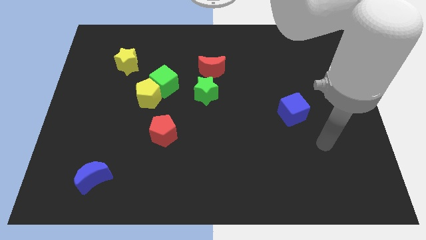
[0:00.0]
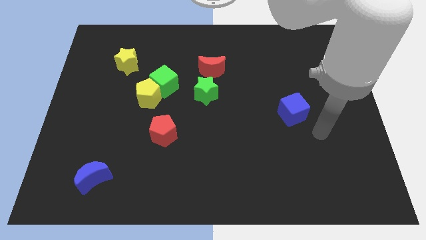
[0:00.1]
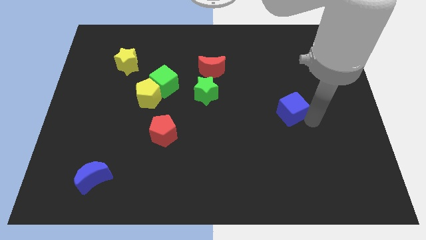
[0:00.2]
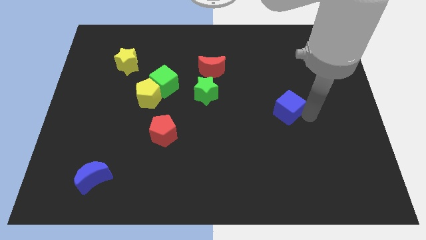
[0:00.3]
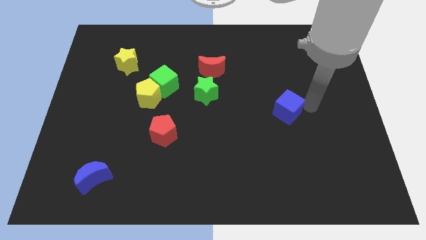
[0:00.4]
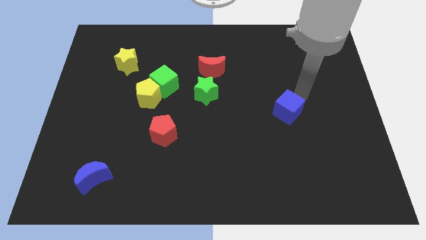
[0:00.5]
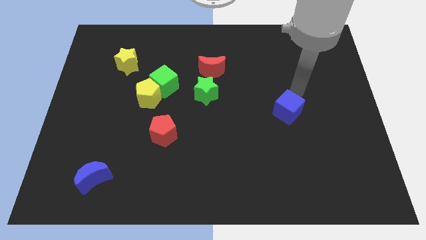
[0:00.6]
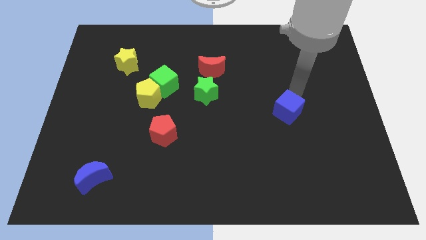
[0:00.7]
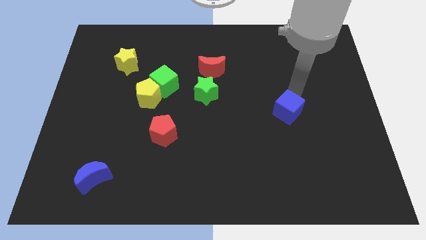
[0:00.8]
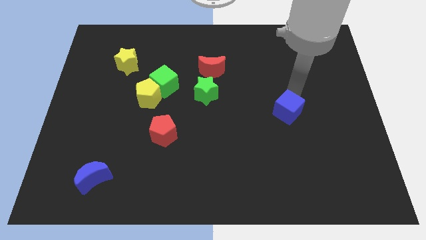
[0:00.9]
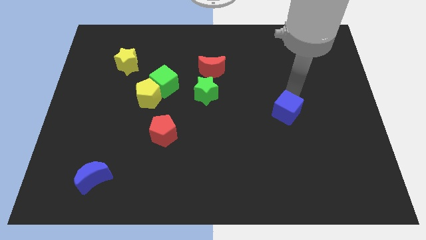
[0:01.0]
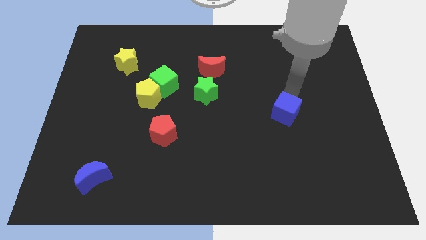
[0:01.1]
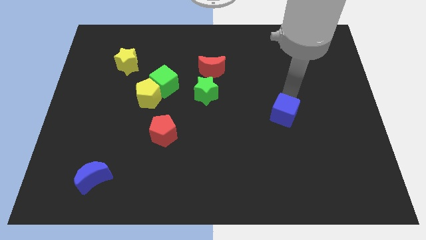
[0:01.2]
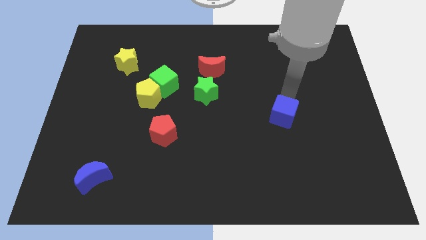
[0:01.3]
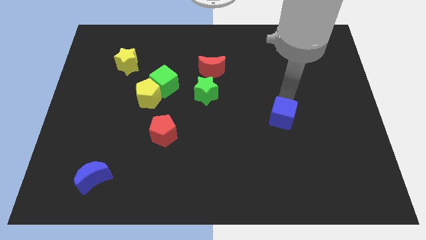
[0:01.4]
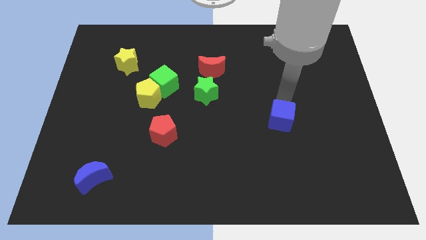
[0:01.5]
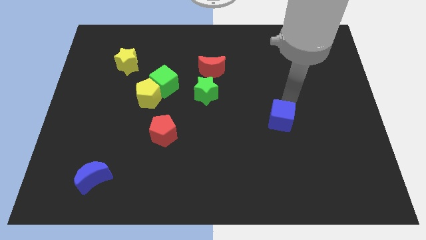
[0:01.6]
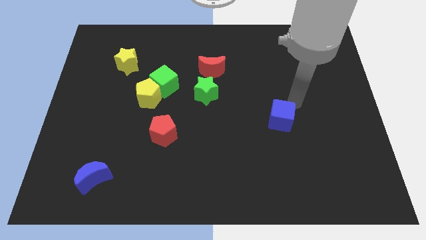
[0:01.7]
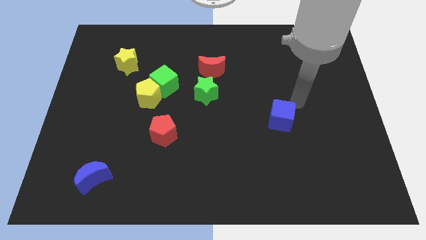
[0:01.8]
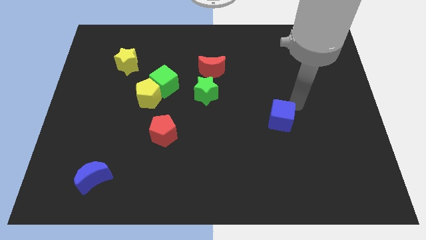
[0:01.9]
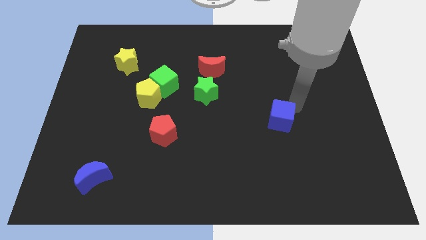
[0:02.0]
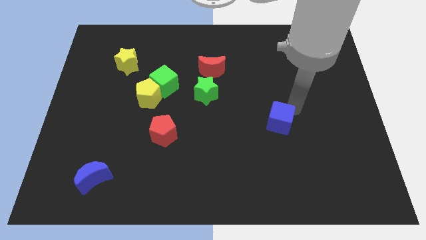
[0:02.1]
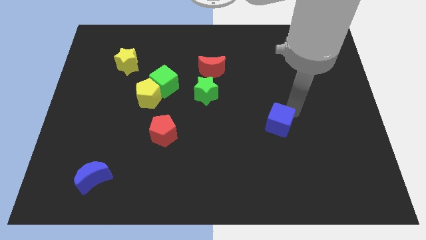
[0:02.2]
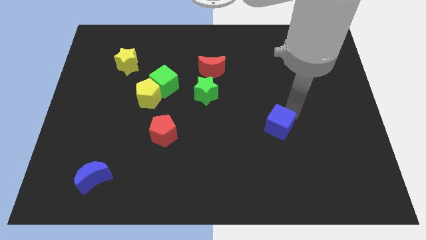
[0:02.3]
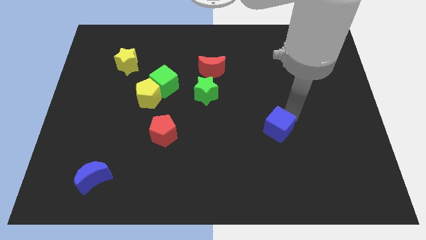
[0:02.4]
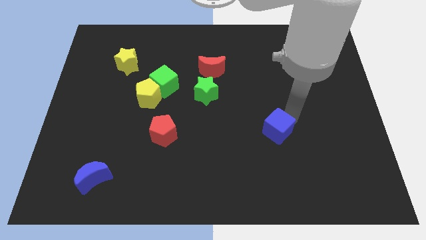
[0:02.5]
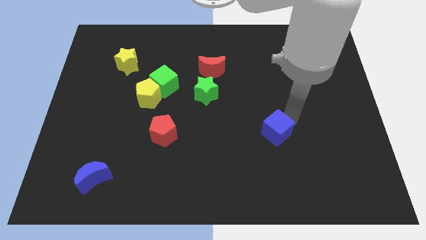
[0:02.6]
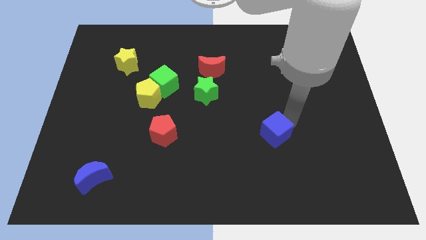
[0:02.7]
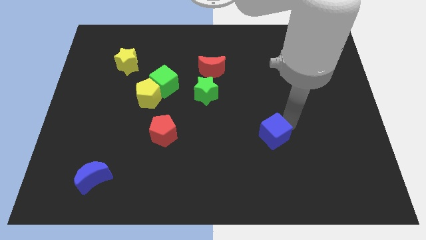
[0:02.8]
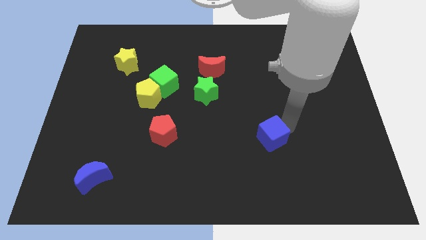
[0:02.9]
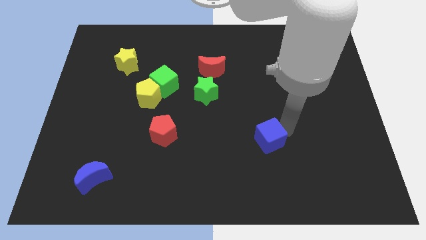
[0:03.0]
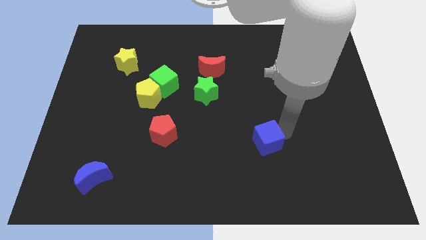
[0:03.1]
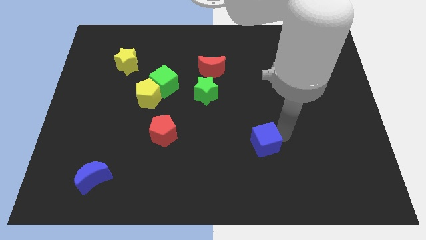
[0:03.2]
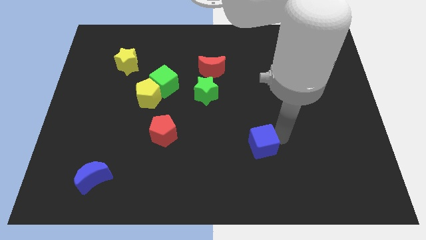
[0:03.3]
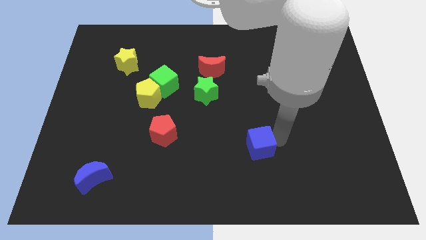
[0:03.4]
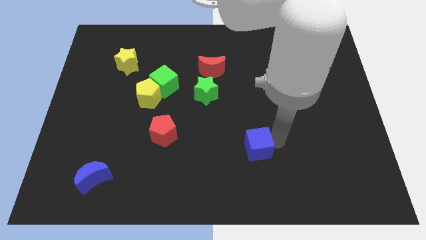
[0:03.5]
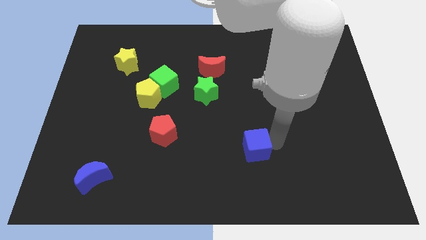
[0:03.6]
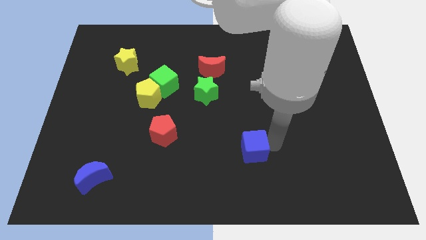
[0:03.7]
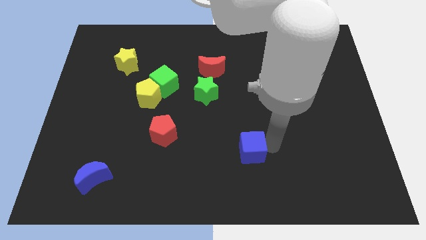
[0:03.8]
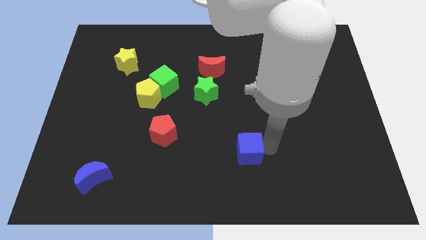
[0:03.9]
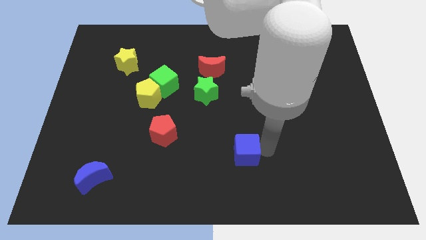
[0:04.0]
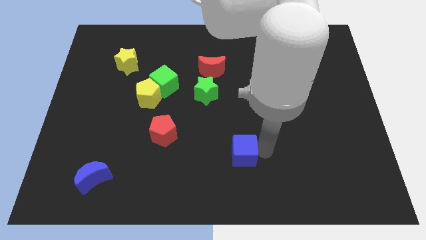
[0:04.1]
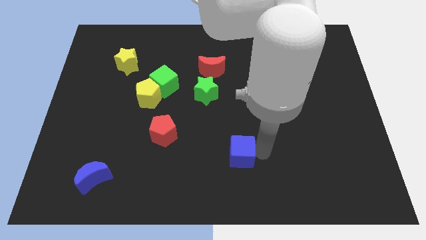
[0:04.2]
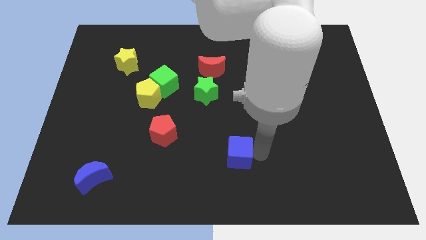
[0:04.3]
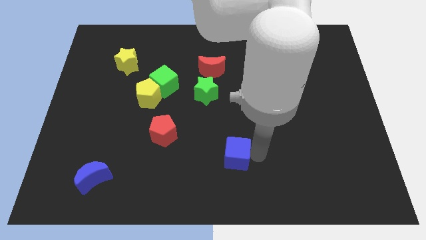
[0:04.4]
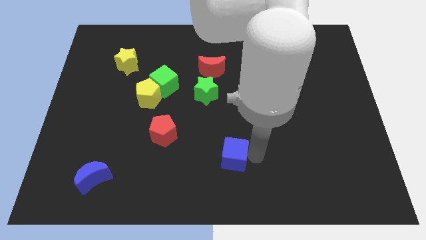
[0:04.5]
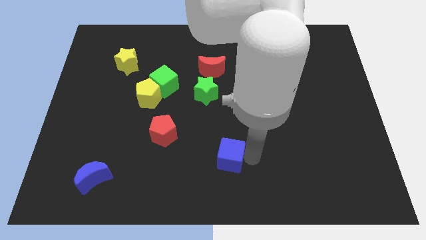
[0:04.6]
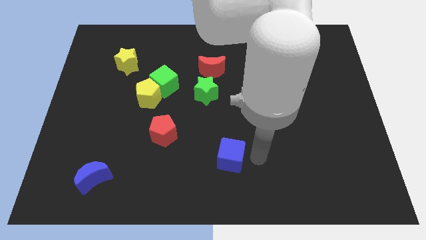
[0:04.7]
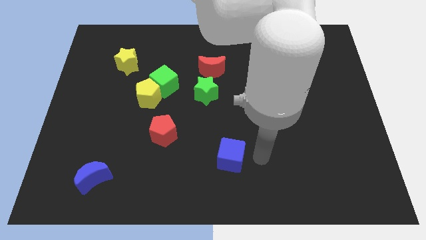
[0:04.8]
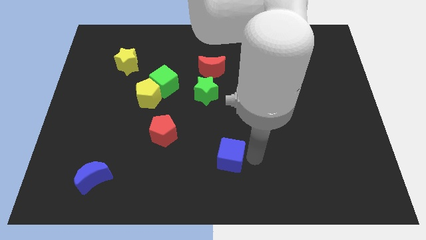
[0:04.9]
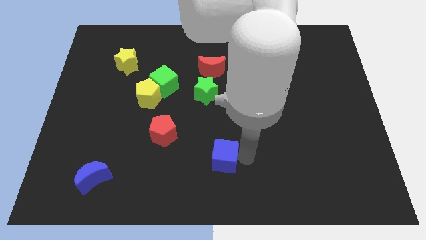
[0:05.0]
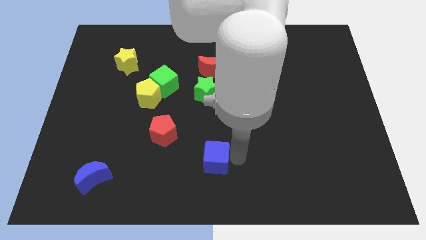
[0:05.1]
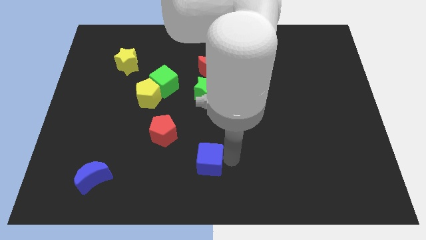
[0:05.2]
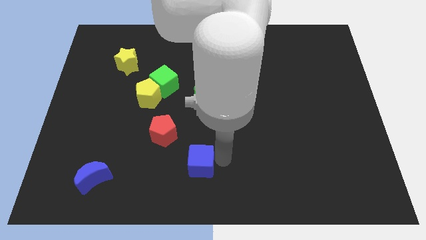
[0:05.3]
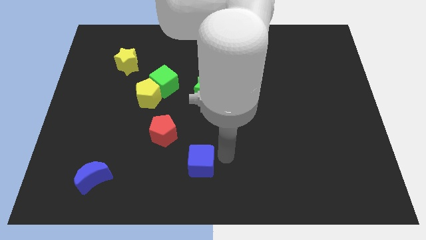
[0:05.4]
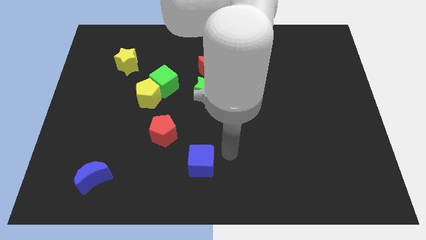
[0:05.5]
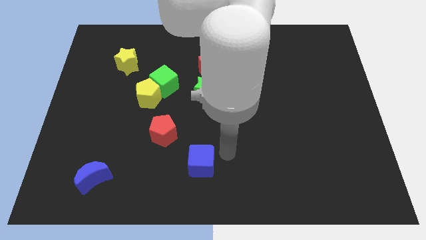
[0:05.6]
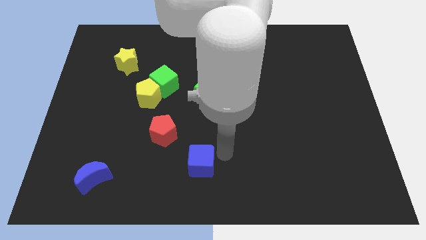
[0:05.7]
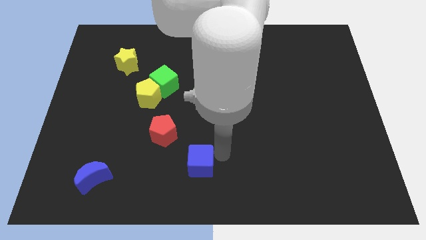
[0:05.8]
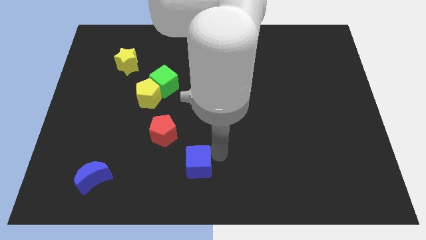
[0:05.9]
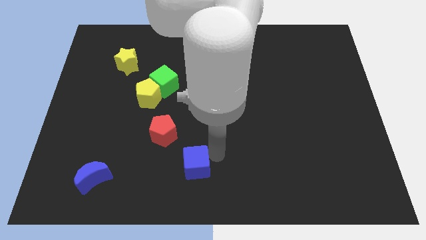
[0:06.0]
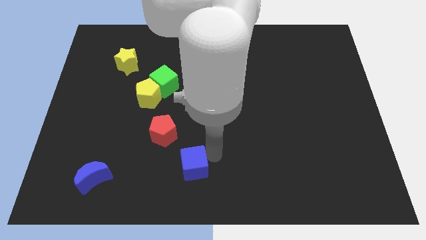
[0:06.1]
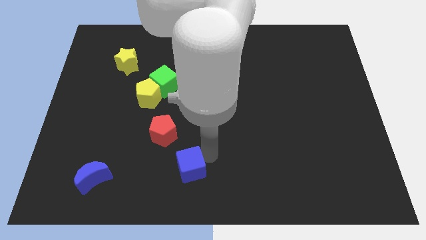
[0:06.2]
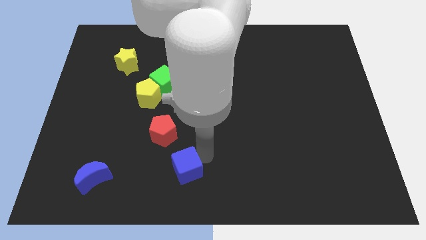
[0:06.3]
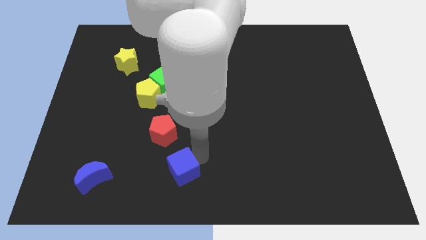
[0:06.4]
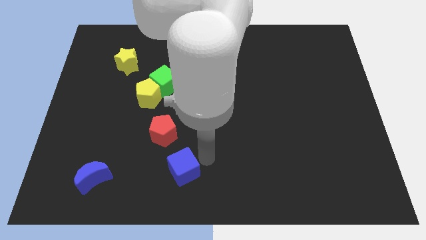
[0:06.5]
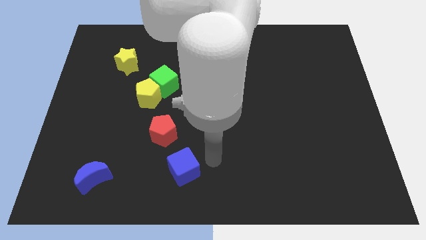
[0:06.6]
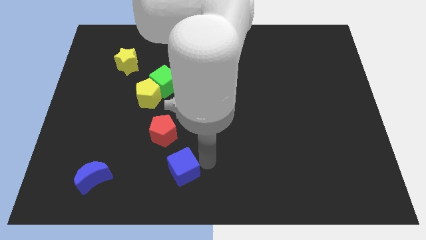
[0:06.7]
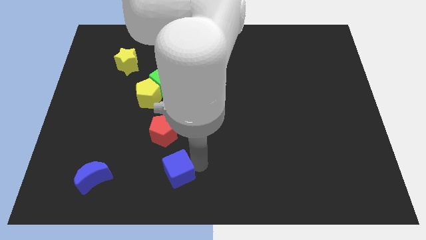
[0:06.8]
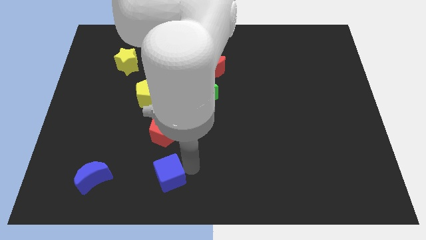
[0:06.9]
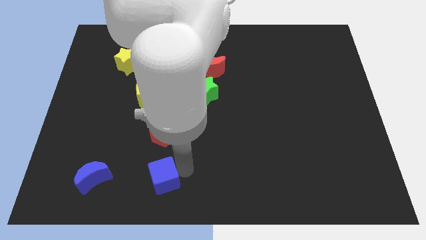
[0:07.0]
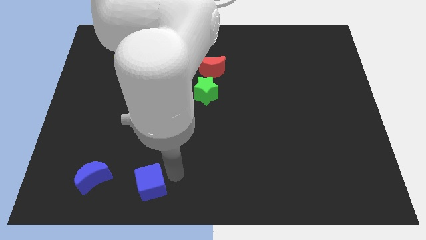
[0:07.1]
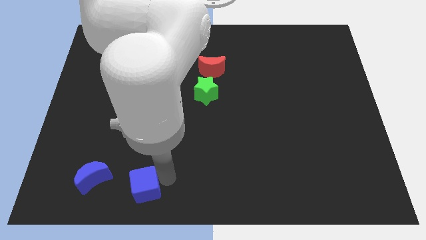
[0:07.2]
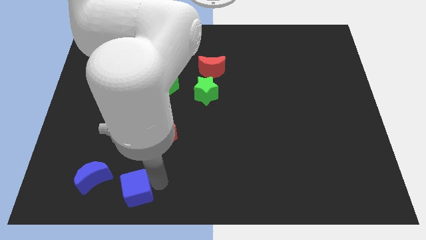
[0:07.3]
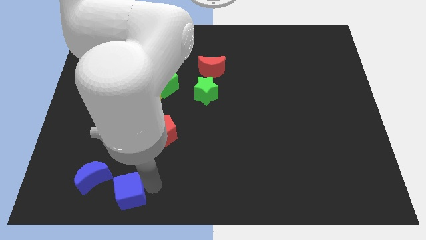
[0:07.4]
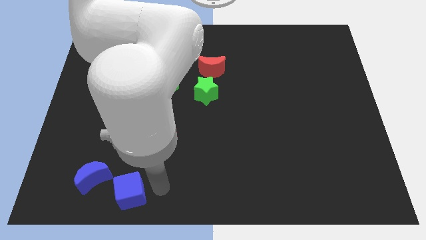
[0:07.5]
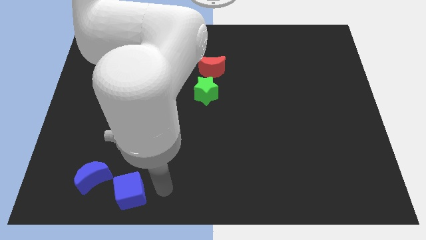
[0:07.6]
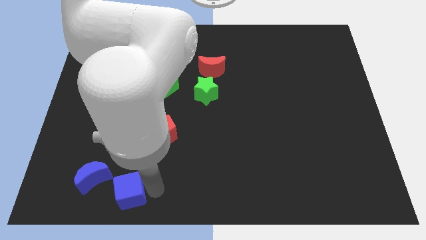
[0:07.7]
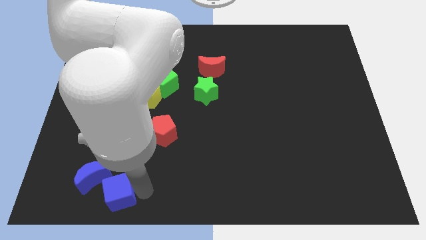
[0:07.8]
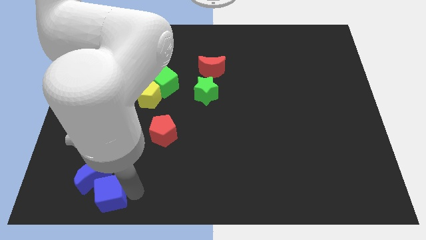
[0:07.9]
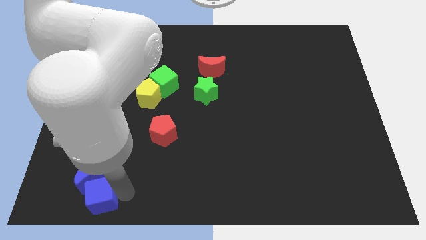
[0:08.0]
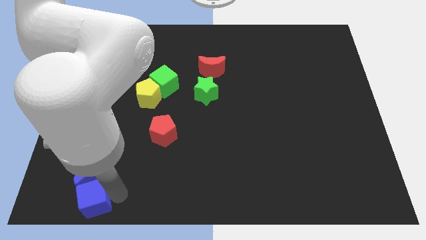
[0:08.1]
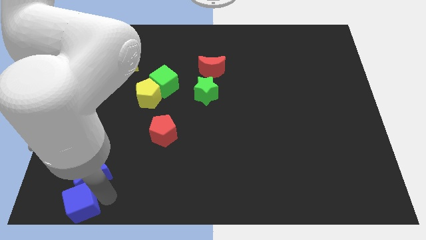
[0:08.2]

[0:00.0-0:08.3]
move the blue cube to the bottom left corner
